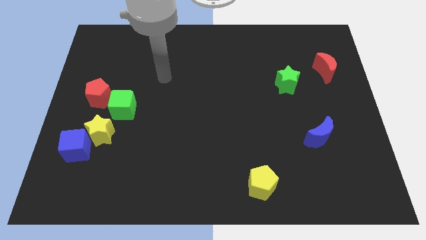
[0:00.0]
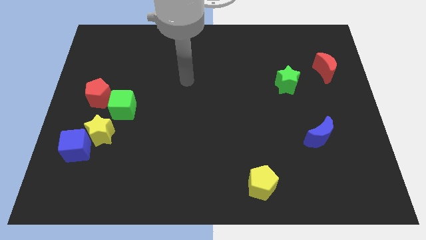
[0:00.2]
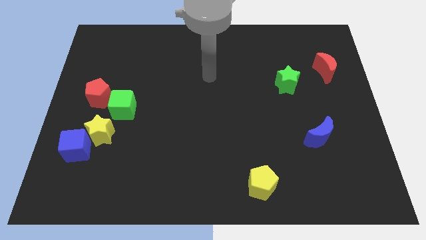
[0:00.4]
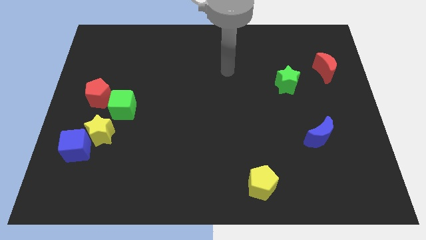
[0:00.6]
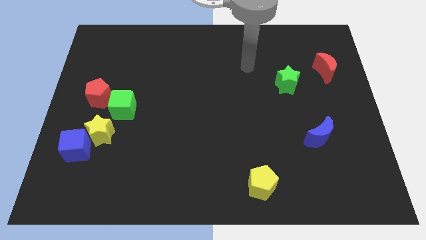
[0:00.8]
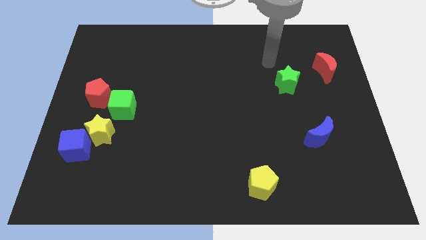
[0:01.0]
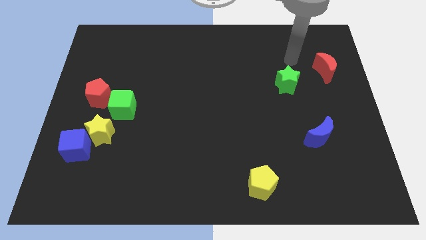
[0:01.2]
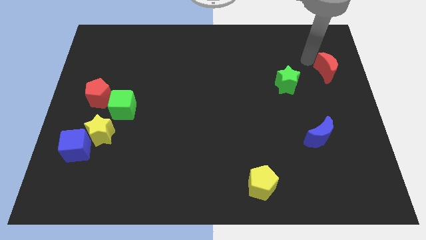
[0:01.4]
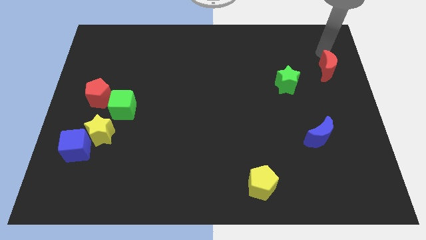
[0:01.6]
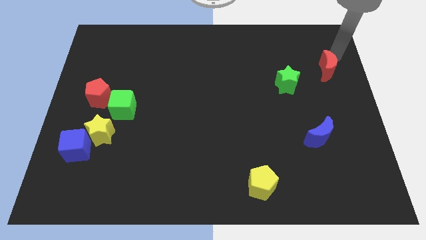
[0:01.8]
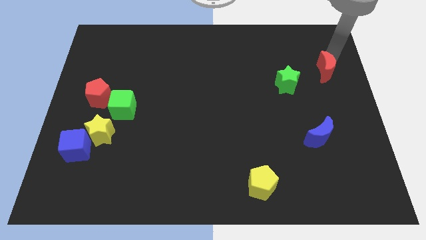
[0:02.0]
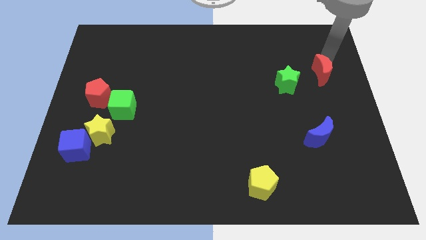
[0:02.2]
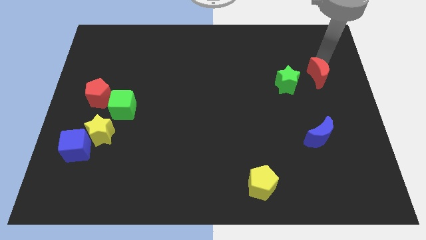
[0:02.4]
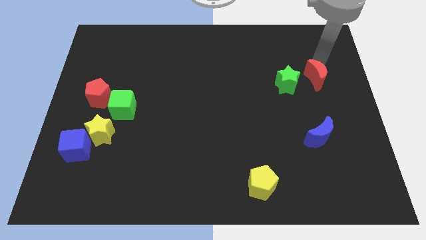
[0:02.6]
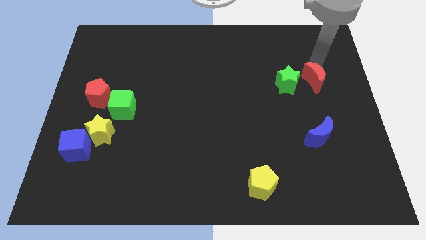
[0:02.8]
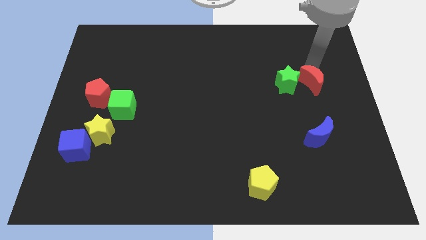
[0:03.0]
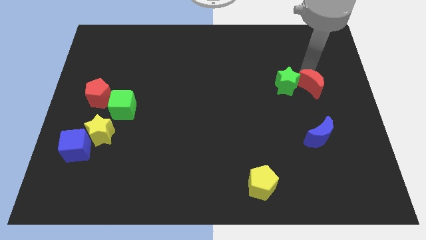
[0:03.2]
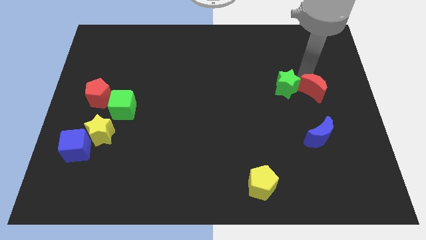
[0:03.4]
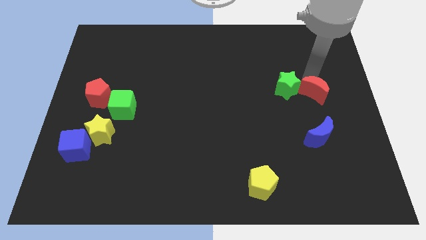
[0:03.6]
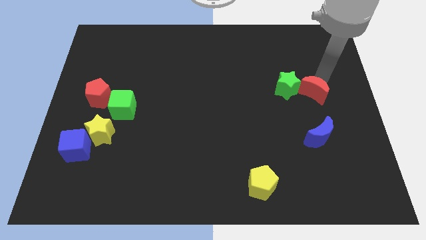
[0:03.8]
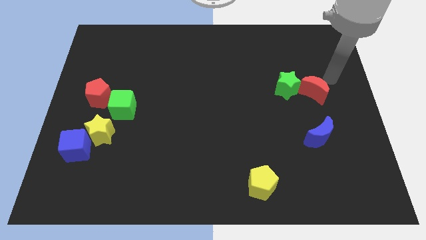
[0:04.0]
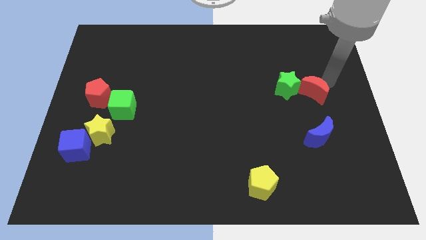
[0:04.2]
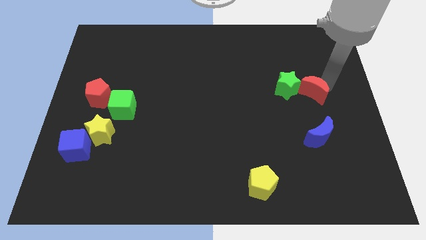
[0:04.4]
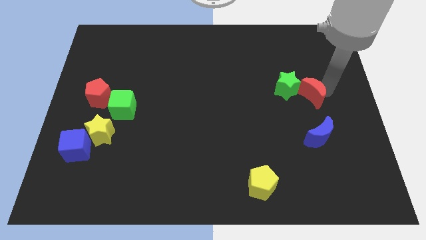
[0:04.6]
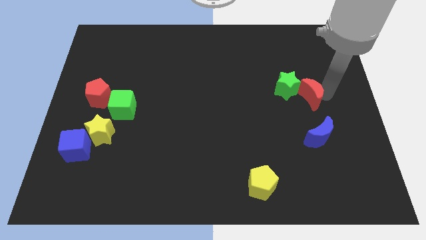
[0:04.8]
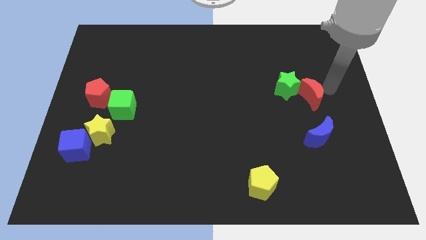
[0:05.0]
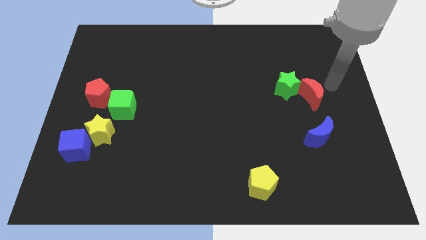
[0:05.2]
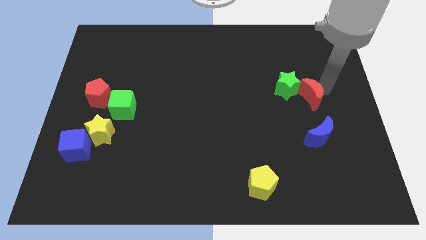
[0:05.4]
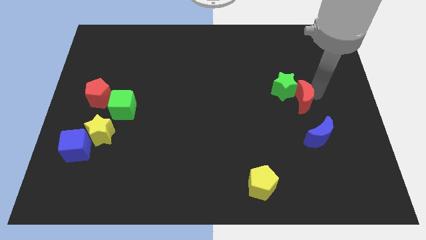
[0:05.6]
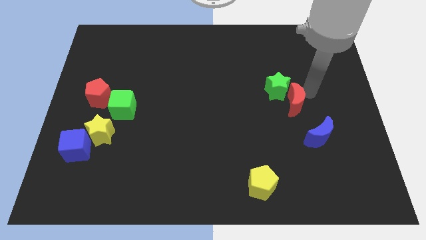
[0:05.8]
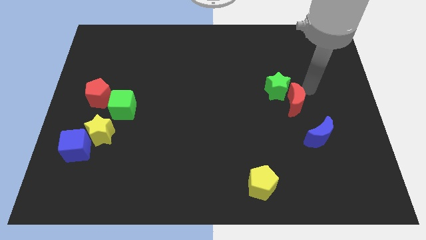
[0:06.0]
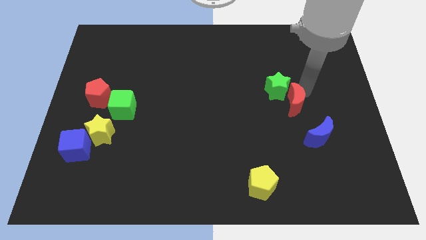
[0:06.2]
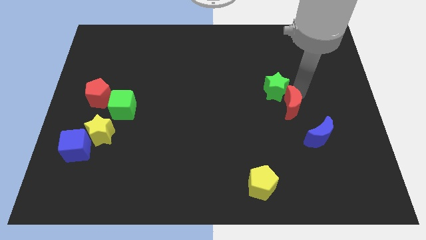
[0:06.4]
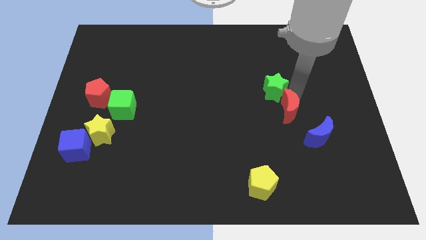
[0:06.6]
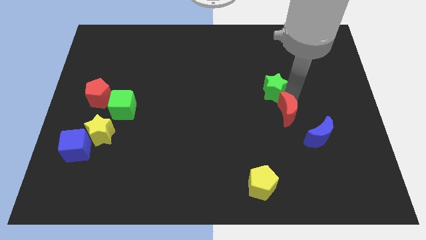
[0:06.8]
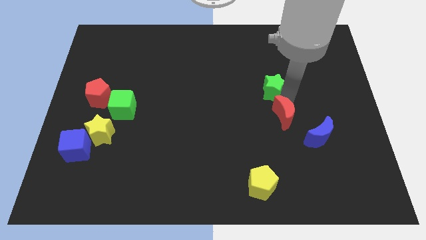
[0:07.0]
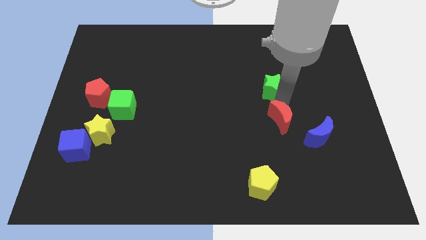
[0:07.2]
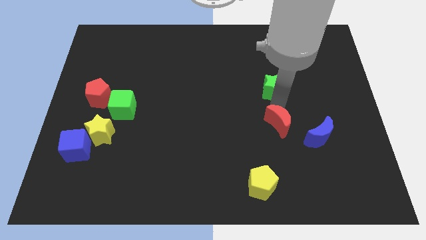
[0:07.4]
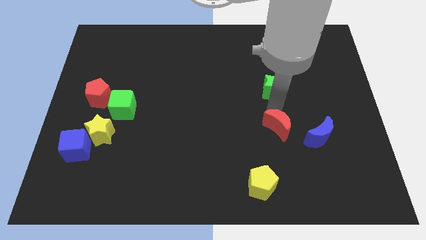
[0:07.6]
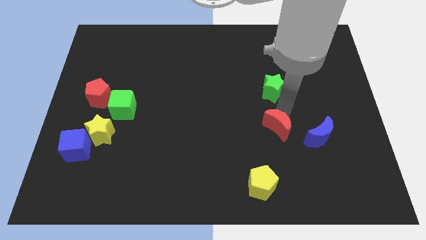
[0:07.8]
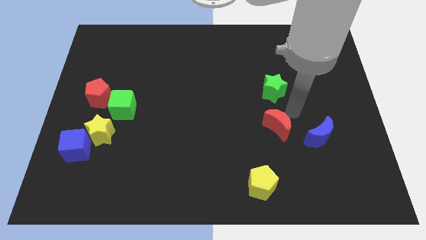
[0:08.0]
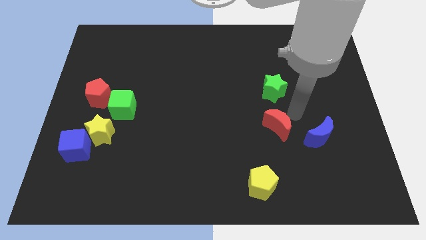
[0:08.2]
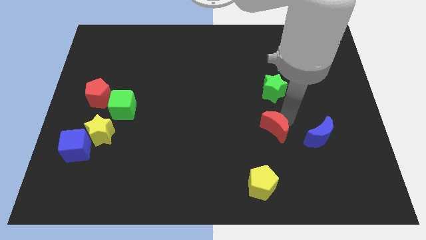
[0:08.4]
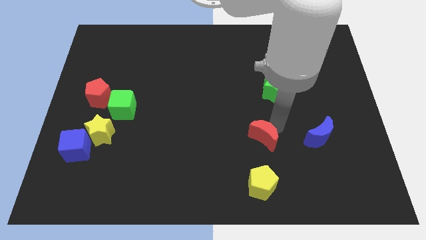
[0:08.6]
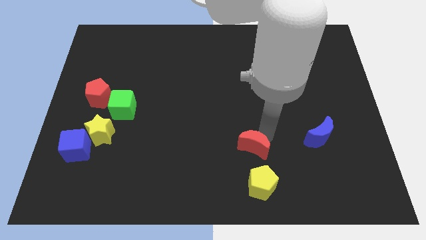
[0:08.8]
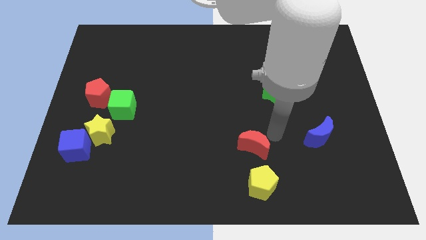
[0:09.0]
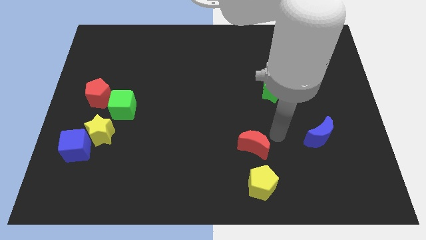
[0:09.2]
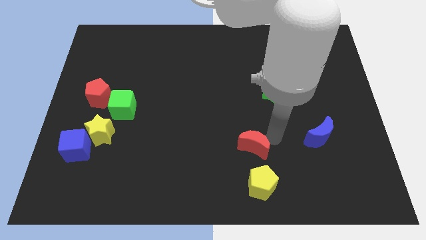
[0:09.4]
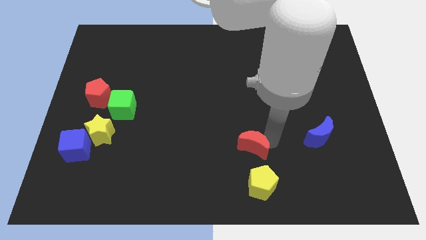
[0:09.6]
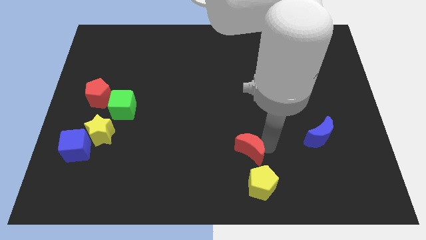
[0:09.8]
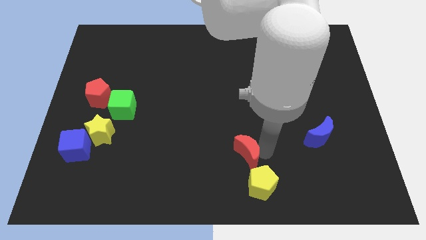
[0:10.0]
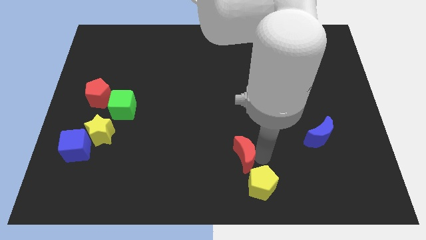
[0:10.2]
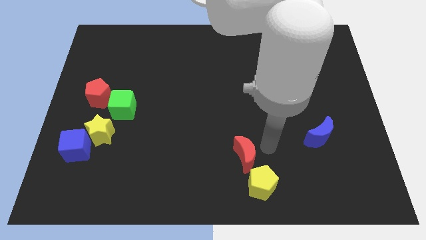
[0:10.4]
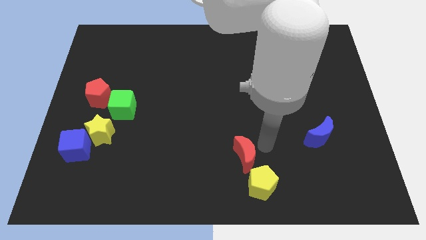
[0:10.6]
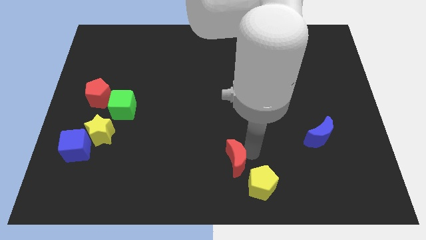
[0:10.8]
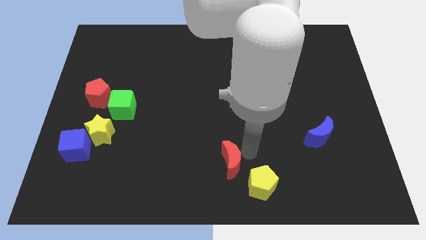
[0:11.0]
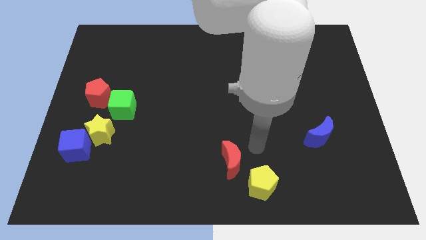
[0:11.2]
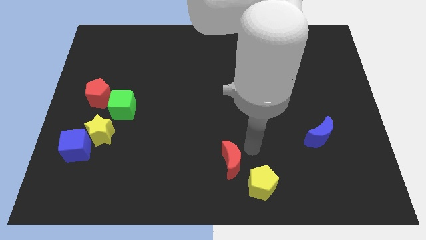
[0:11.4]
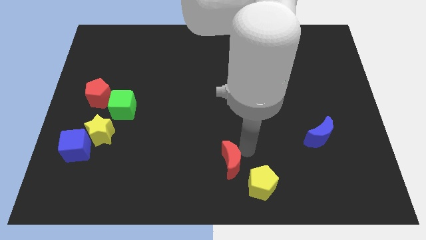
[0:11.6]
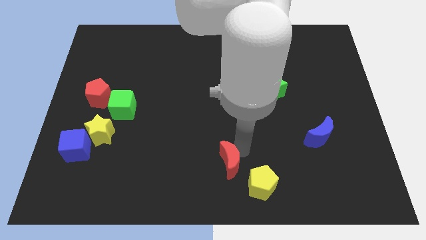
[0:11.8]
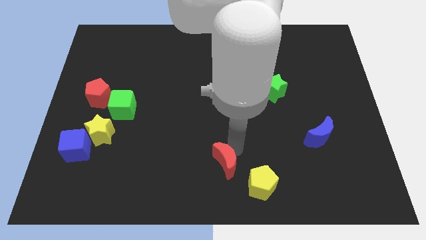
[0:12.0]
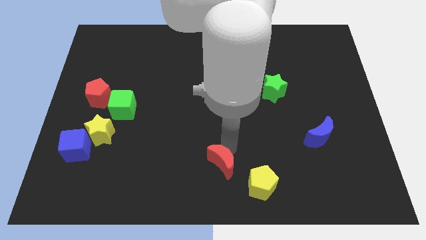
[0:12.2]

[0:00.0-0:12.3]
move the red moon just left of the yellow pentagon

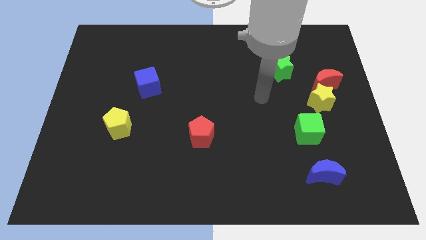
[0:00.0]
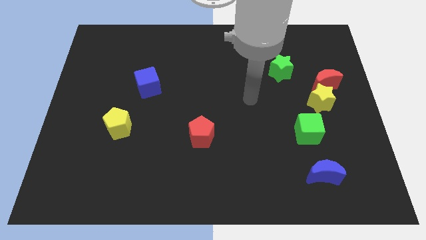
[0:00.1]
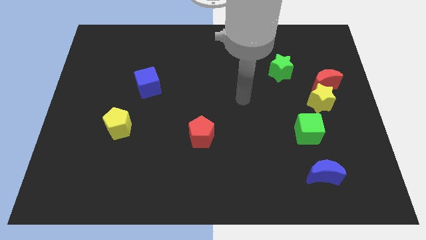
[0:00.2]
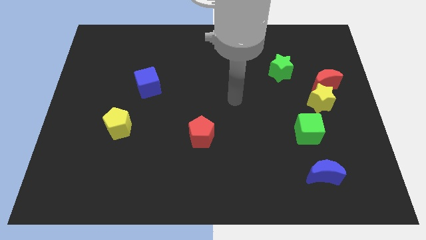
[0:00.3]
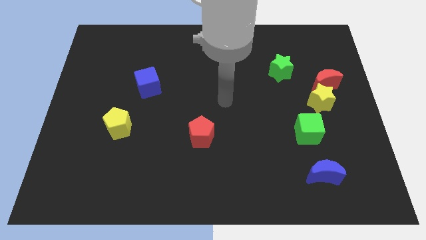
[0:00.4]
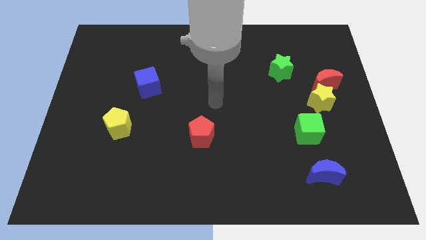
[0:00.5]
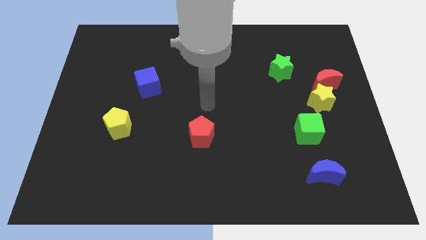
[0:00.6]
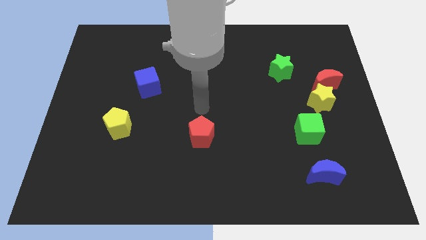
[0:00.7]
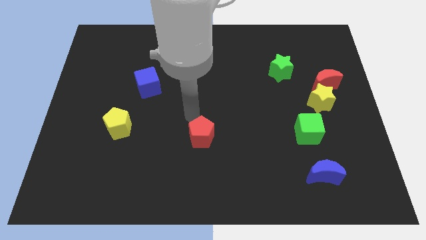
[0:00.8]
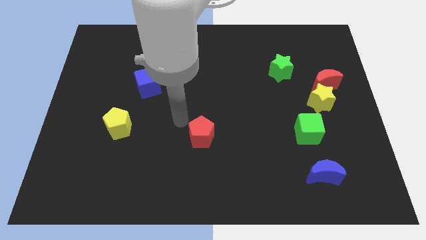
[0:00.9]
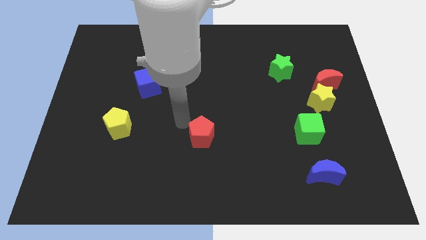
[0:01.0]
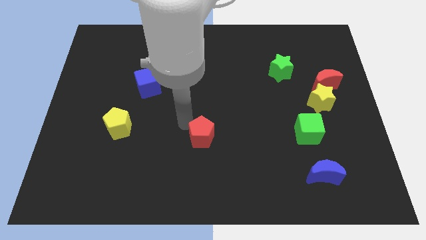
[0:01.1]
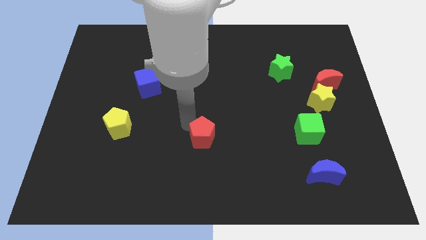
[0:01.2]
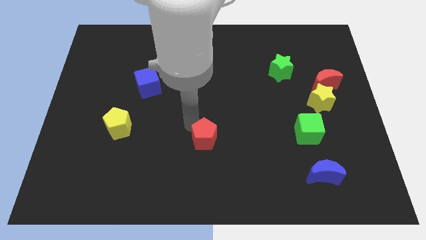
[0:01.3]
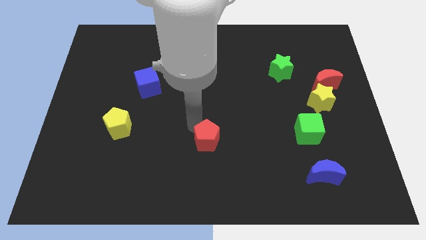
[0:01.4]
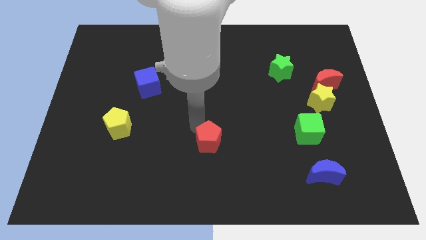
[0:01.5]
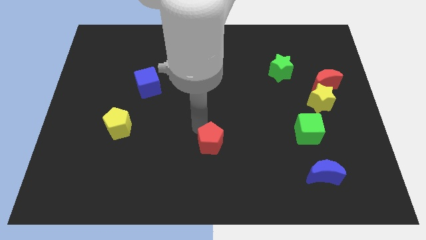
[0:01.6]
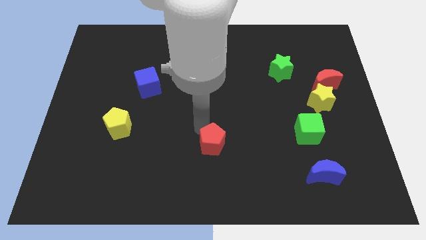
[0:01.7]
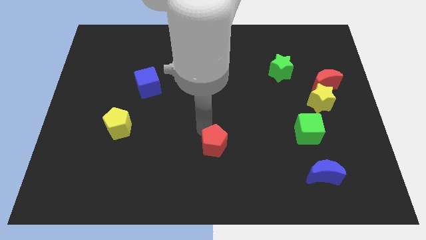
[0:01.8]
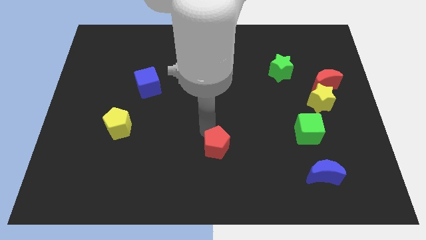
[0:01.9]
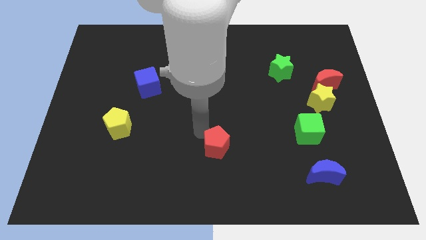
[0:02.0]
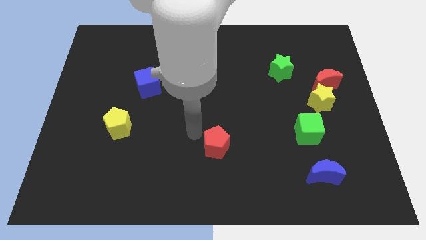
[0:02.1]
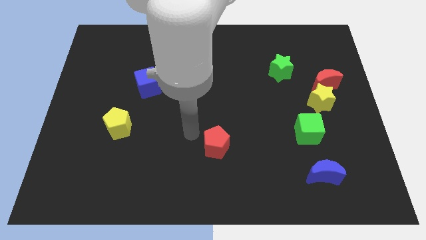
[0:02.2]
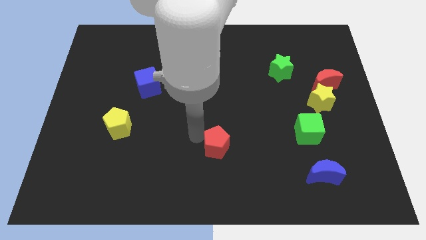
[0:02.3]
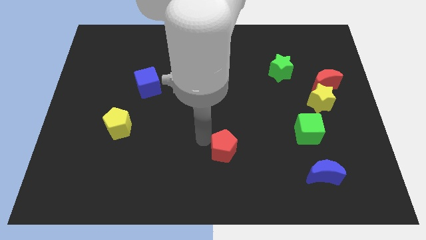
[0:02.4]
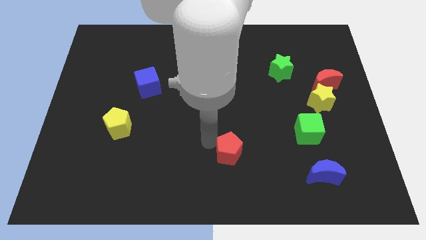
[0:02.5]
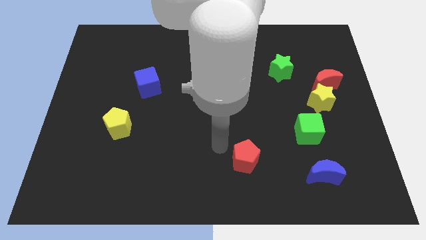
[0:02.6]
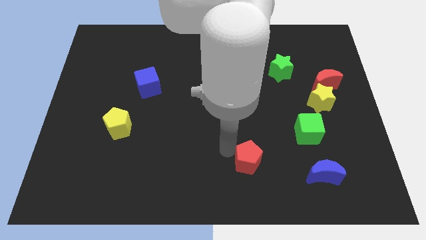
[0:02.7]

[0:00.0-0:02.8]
push the red pentagon just left of the blue moon
